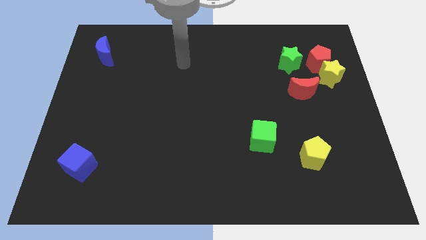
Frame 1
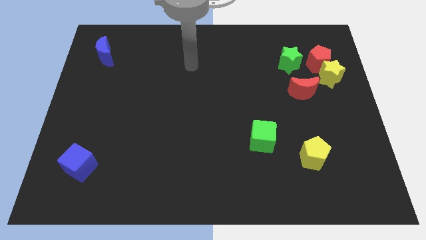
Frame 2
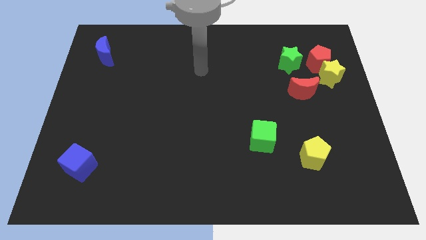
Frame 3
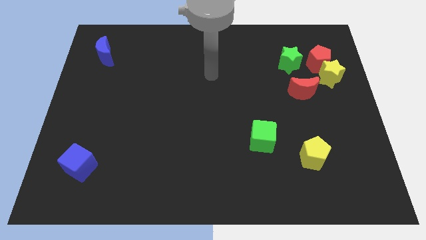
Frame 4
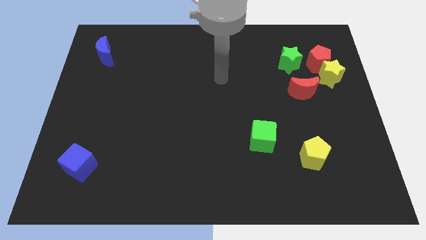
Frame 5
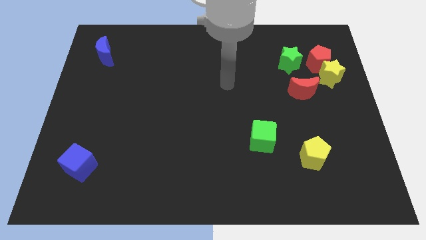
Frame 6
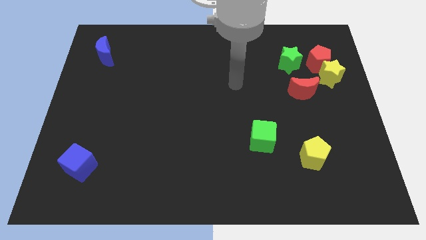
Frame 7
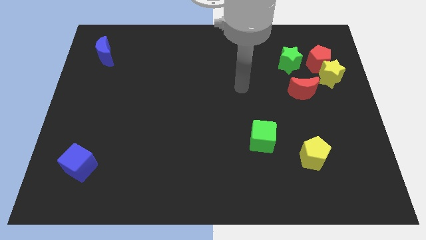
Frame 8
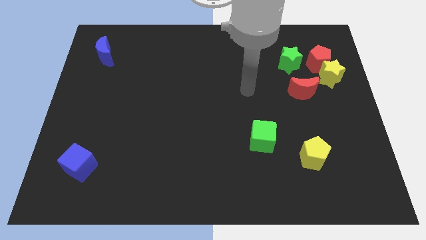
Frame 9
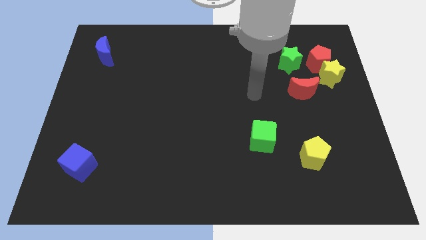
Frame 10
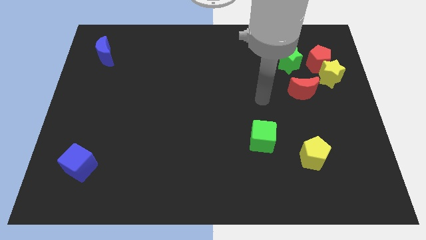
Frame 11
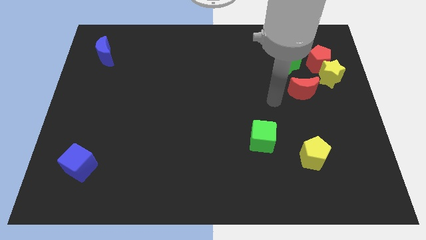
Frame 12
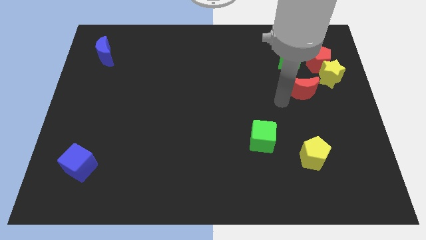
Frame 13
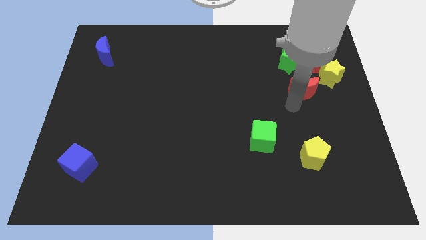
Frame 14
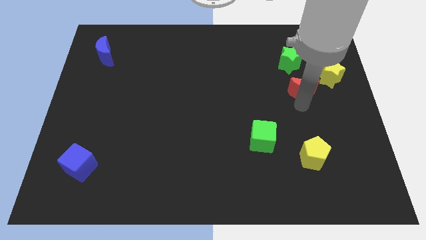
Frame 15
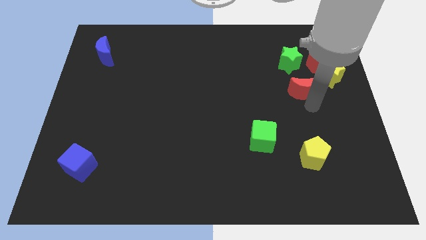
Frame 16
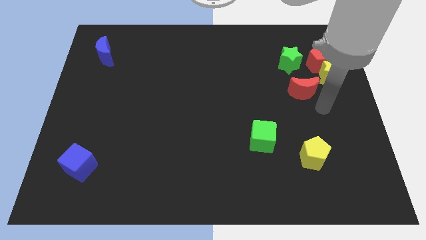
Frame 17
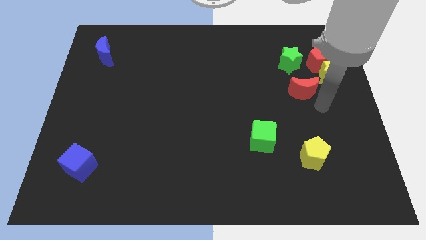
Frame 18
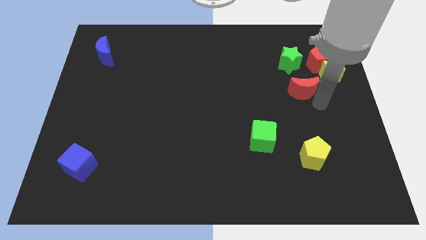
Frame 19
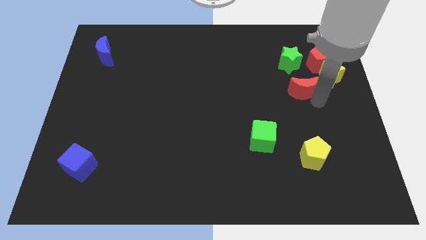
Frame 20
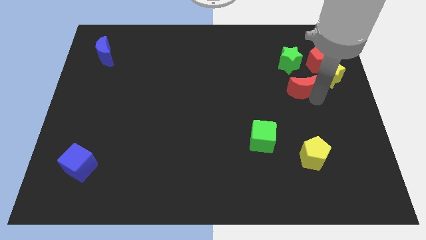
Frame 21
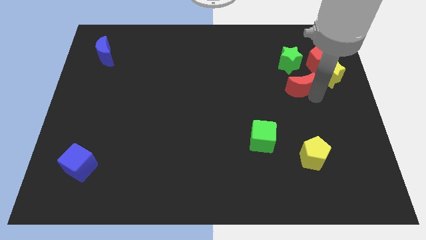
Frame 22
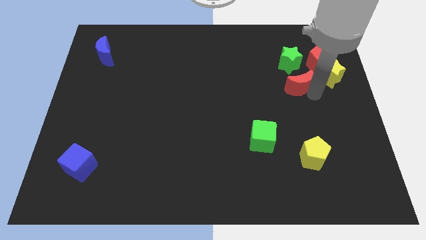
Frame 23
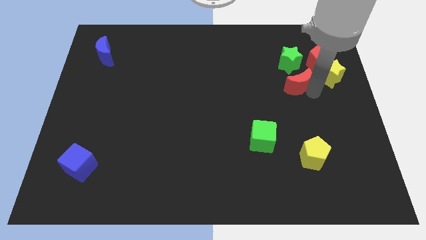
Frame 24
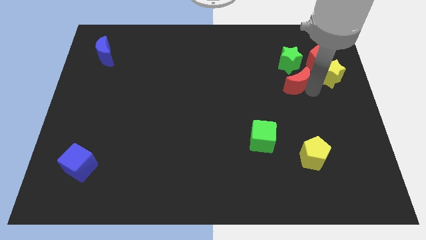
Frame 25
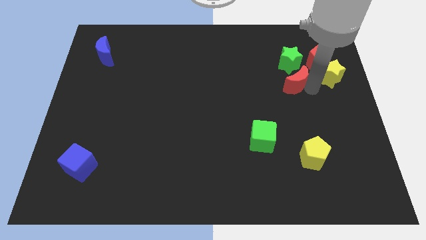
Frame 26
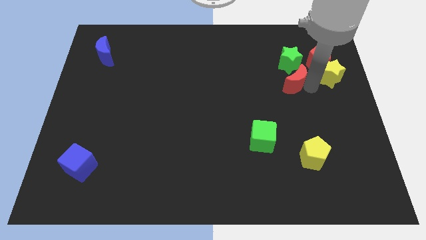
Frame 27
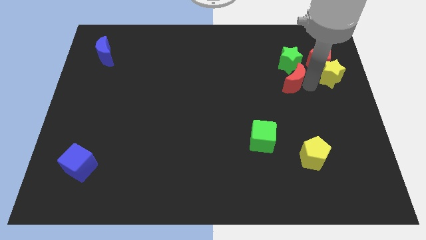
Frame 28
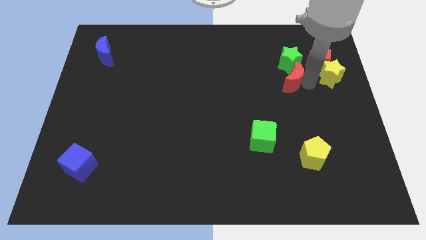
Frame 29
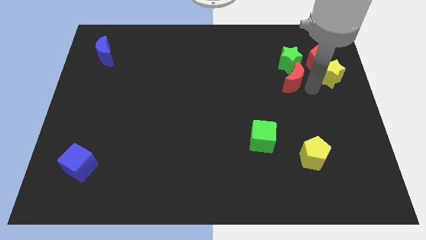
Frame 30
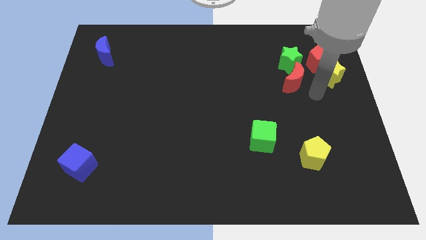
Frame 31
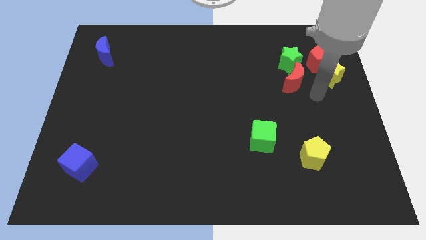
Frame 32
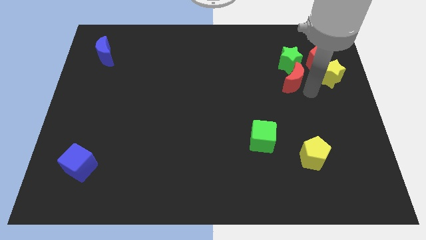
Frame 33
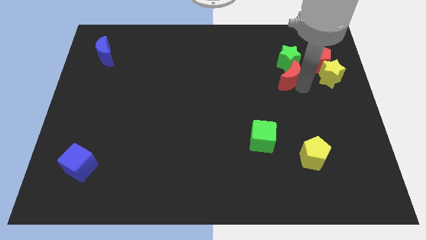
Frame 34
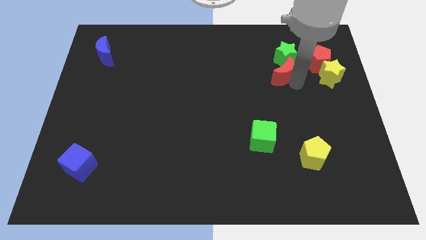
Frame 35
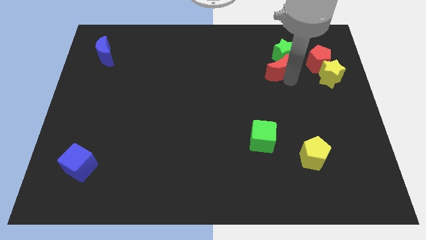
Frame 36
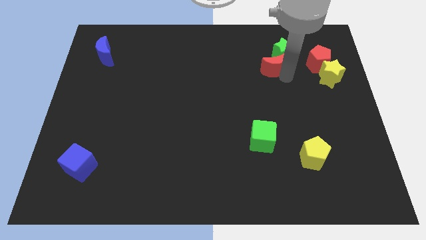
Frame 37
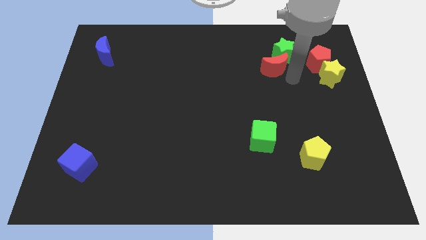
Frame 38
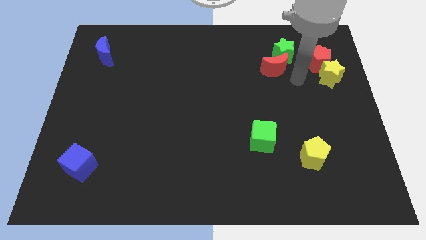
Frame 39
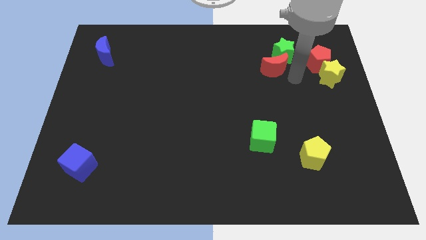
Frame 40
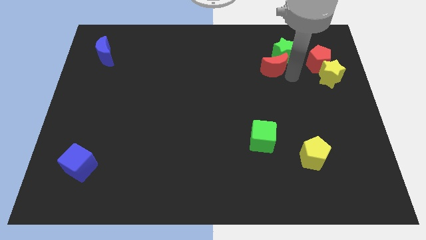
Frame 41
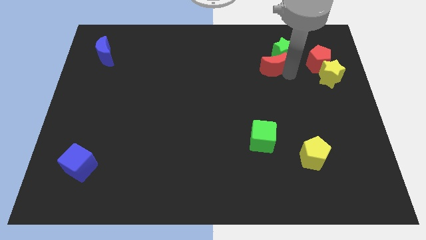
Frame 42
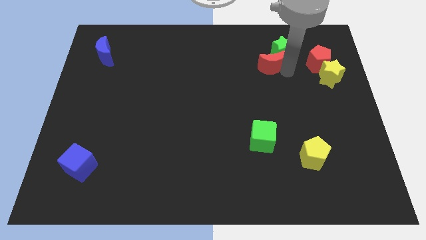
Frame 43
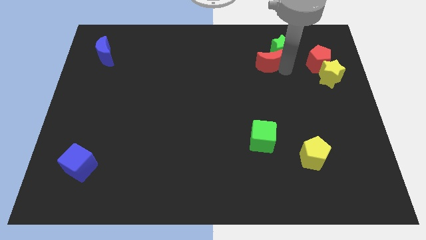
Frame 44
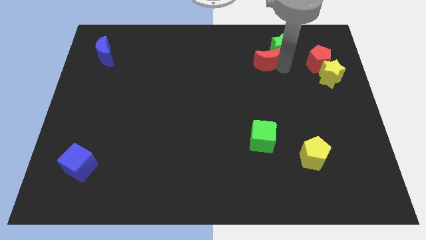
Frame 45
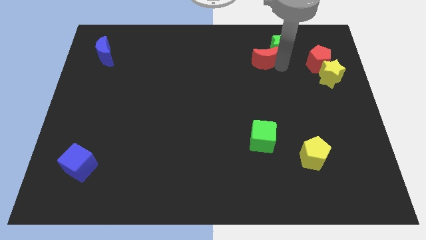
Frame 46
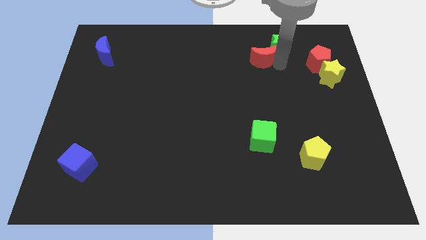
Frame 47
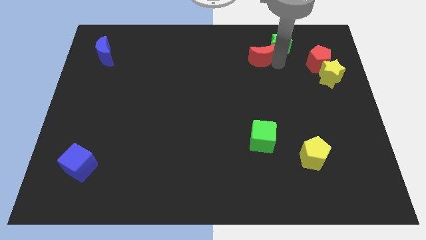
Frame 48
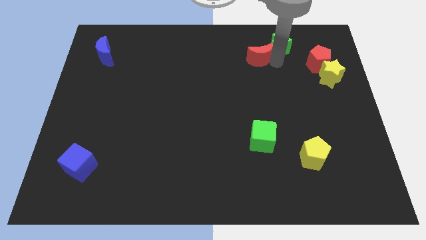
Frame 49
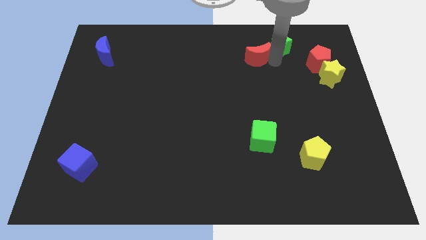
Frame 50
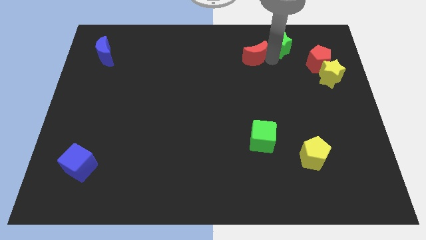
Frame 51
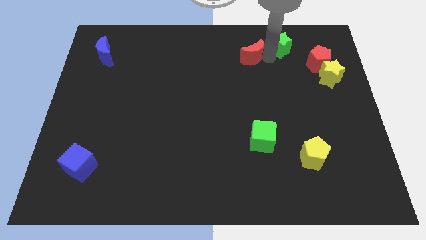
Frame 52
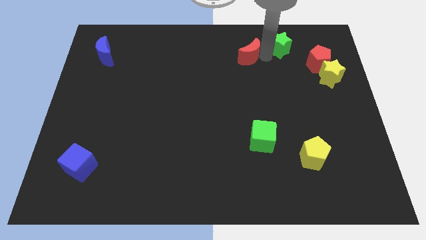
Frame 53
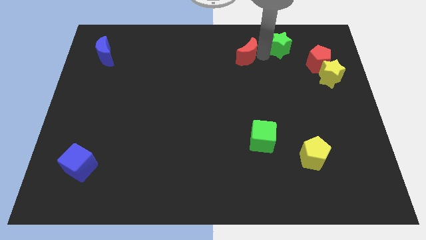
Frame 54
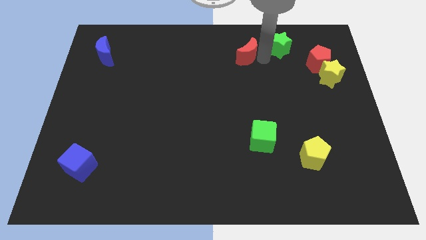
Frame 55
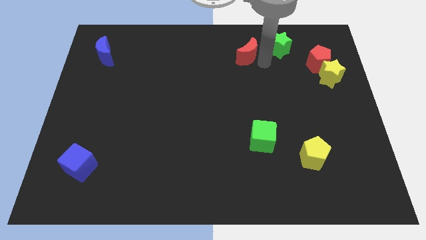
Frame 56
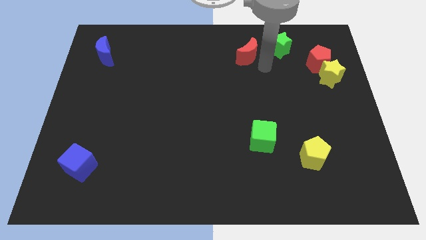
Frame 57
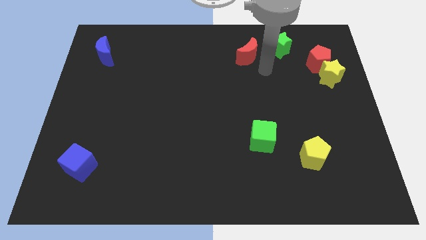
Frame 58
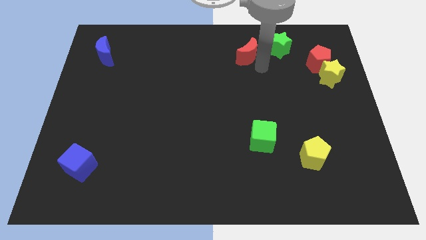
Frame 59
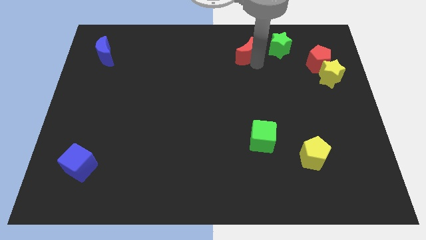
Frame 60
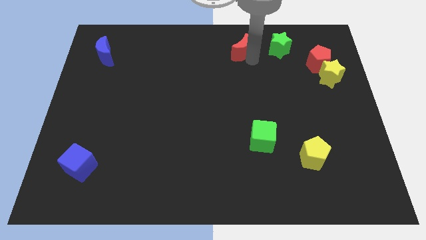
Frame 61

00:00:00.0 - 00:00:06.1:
push the red moon to the top side
